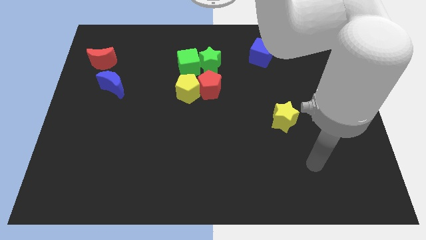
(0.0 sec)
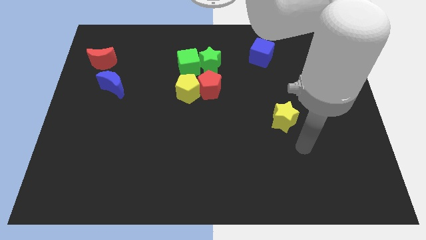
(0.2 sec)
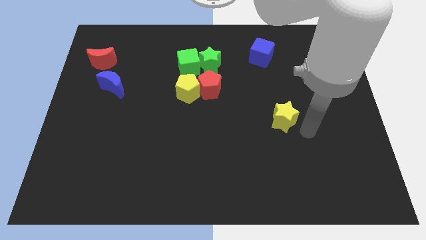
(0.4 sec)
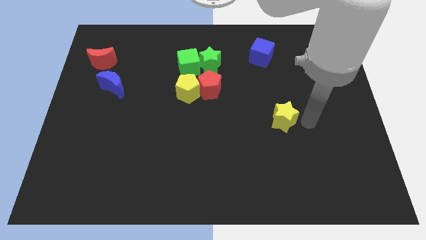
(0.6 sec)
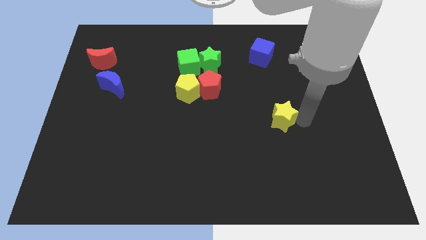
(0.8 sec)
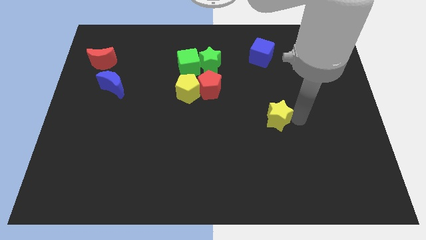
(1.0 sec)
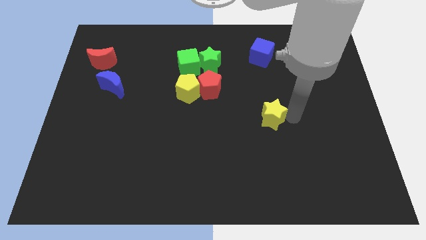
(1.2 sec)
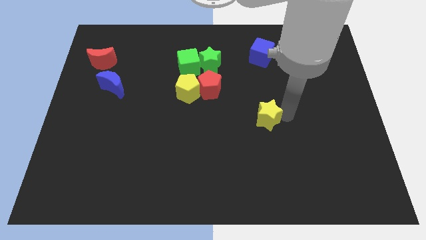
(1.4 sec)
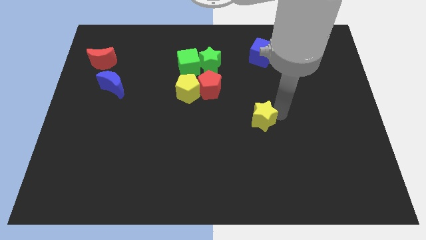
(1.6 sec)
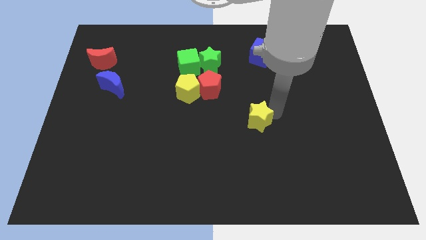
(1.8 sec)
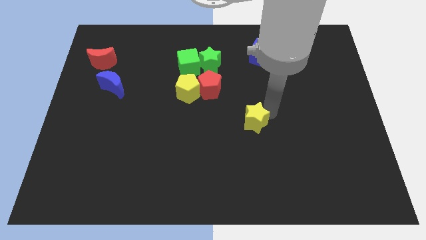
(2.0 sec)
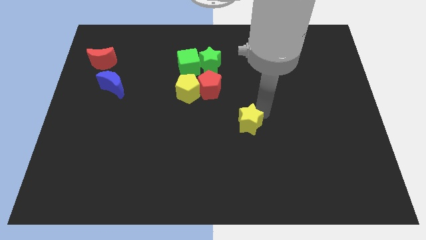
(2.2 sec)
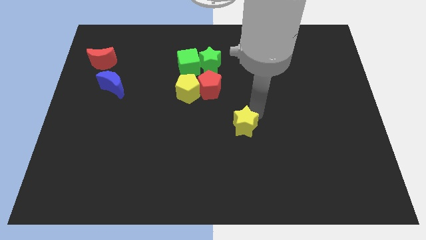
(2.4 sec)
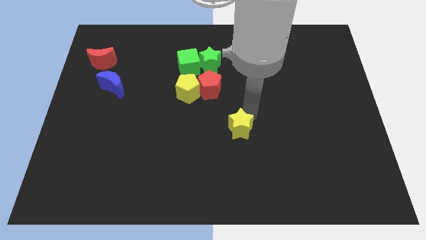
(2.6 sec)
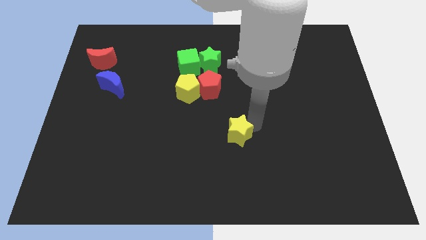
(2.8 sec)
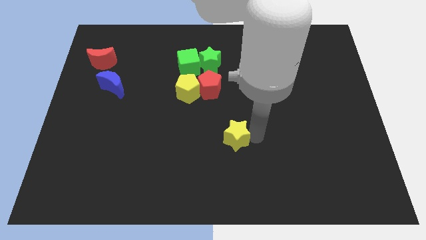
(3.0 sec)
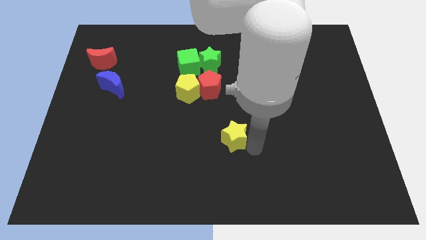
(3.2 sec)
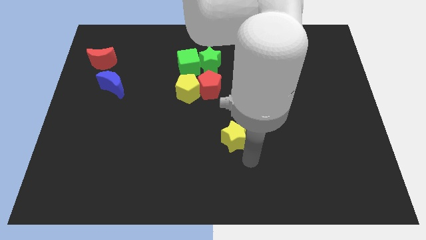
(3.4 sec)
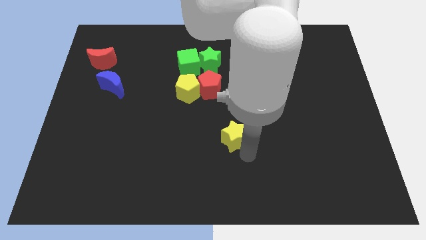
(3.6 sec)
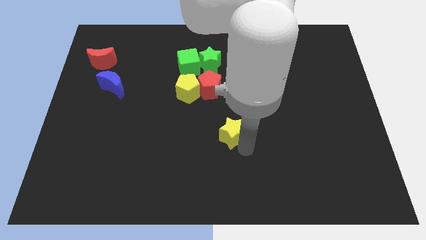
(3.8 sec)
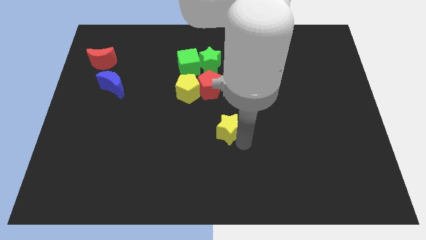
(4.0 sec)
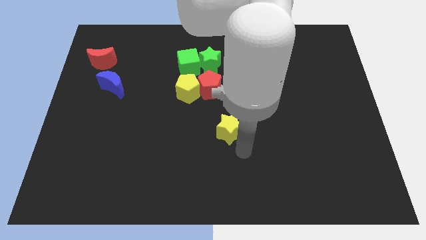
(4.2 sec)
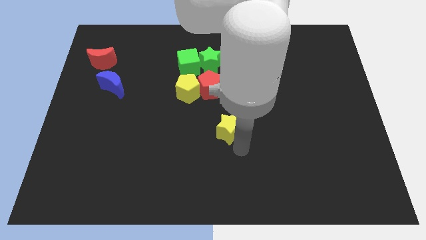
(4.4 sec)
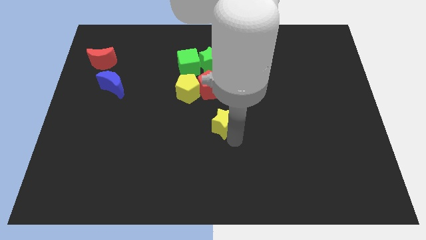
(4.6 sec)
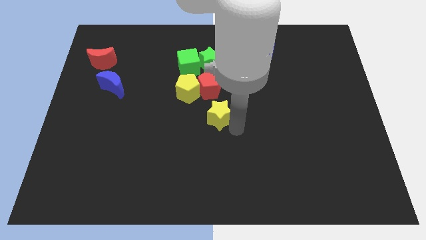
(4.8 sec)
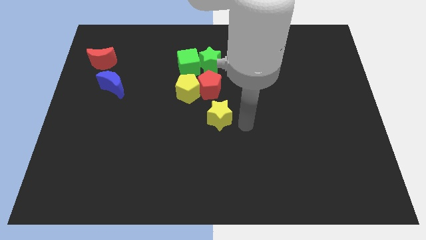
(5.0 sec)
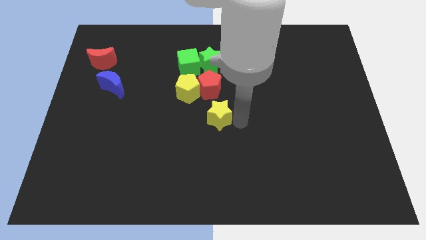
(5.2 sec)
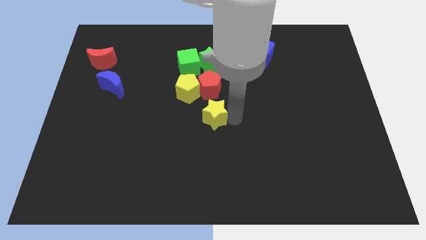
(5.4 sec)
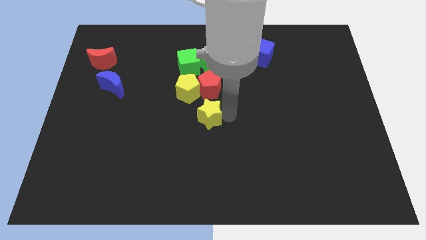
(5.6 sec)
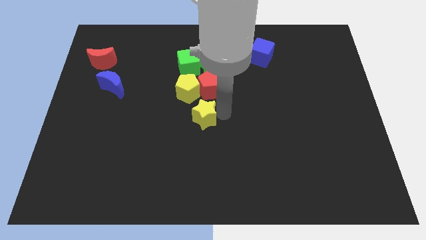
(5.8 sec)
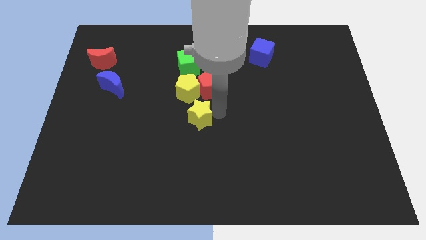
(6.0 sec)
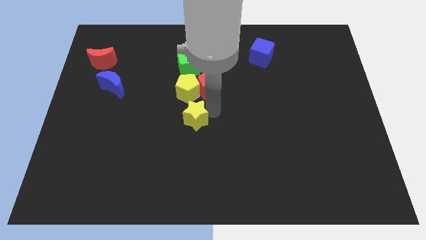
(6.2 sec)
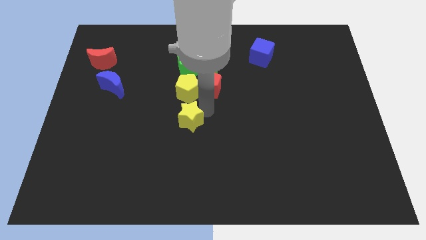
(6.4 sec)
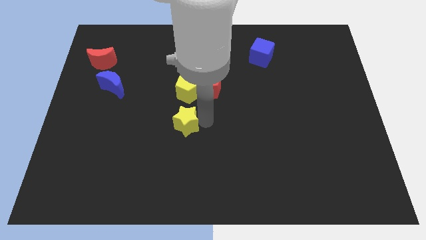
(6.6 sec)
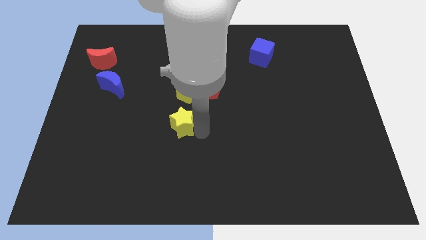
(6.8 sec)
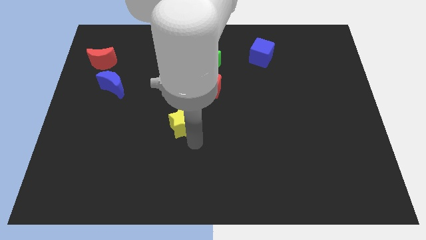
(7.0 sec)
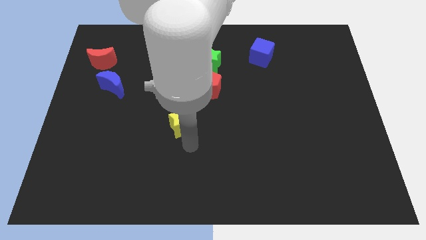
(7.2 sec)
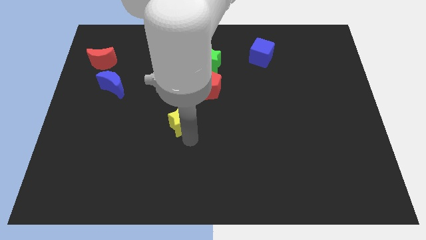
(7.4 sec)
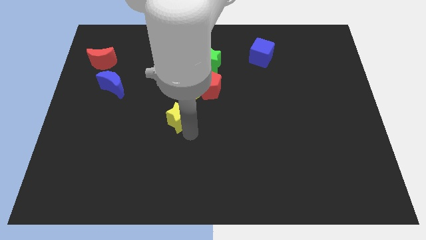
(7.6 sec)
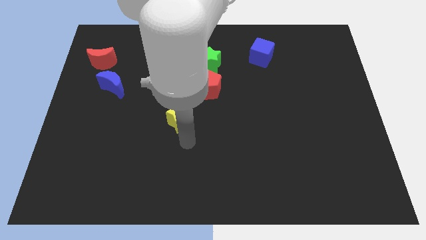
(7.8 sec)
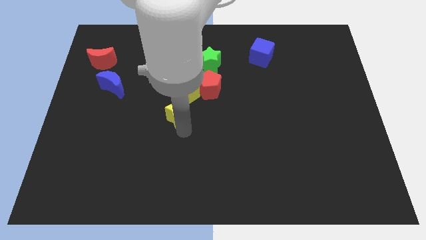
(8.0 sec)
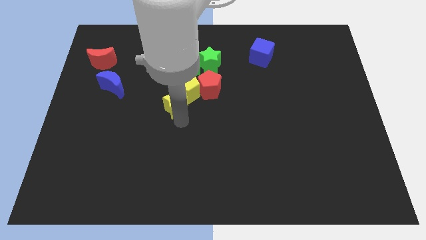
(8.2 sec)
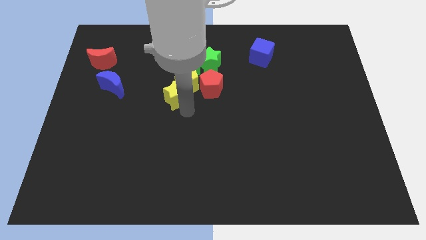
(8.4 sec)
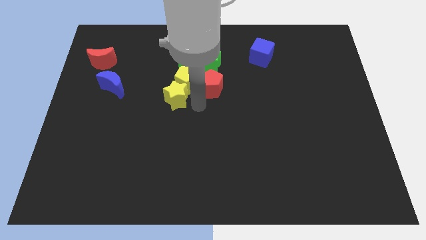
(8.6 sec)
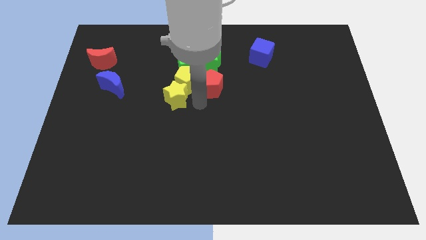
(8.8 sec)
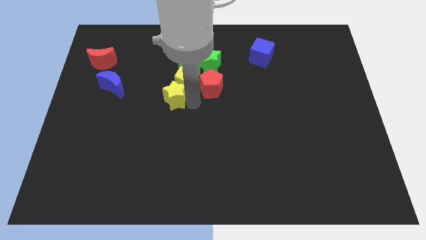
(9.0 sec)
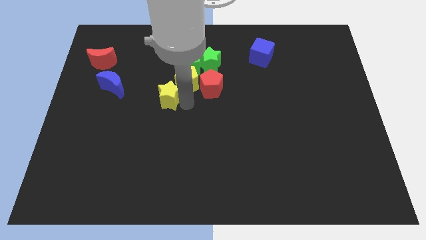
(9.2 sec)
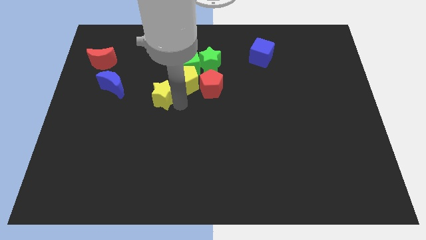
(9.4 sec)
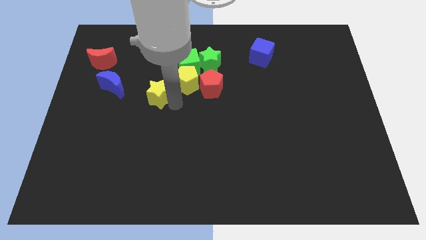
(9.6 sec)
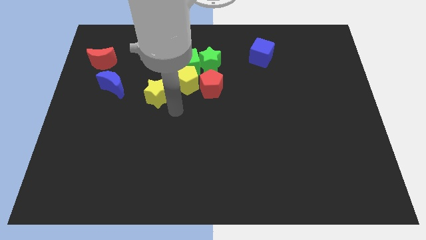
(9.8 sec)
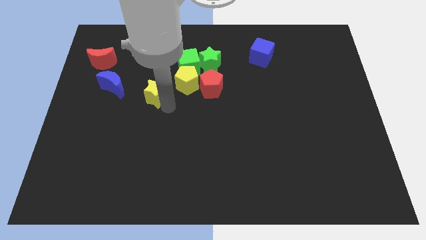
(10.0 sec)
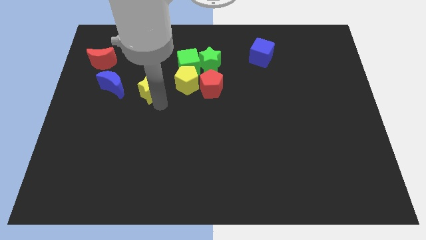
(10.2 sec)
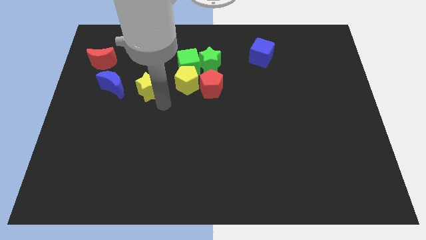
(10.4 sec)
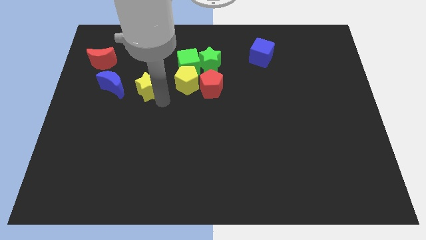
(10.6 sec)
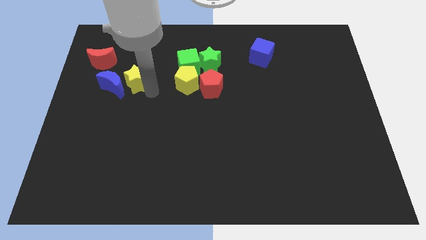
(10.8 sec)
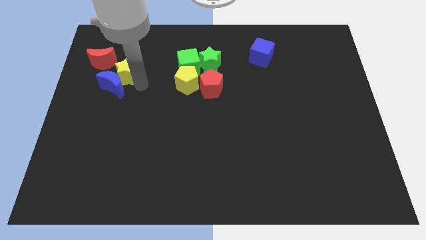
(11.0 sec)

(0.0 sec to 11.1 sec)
move the yellow star to the top of the blue moon

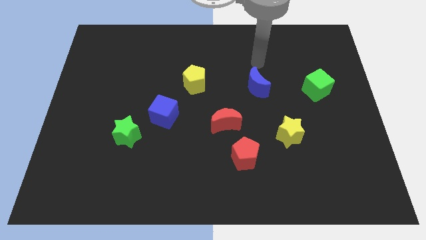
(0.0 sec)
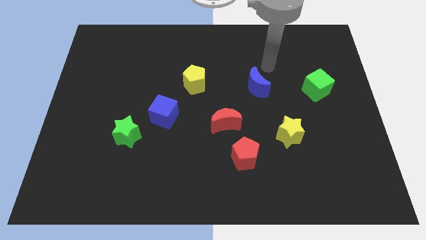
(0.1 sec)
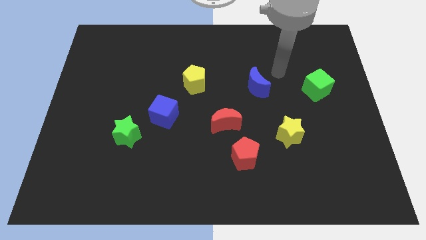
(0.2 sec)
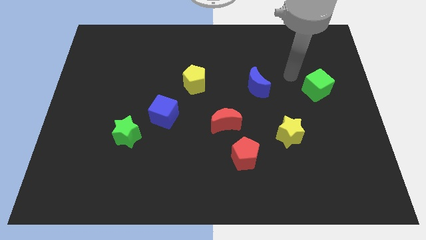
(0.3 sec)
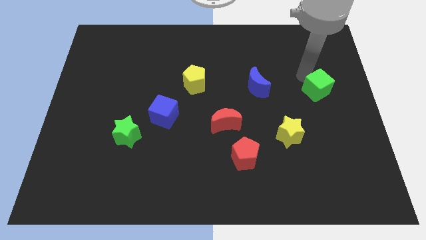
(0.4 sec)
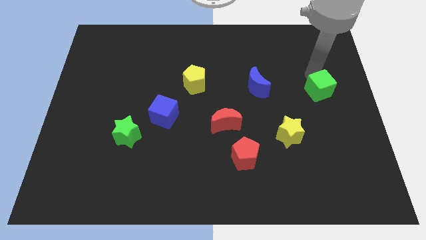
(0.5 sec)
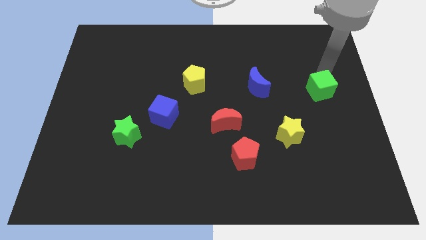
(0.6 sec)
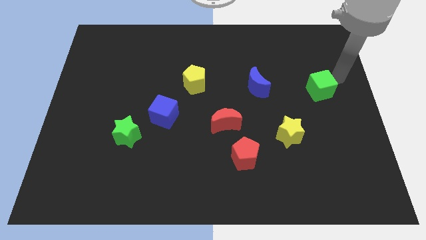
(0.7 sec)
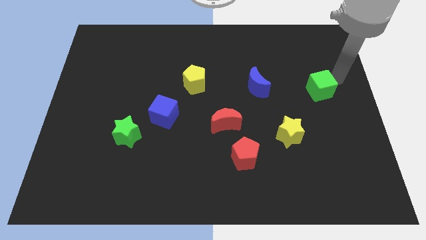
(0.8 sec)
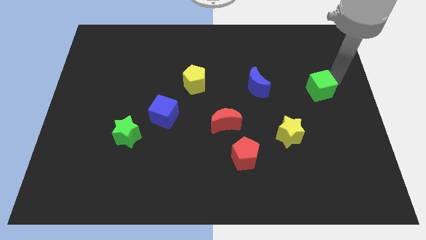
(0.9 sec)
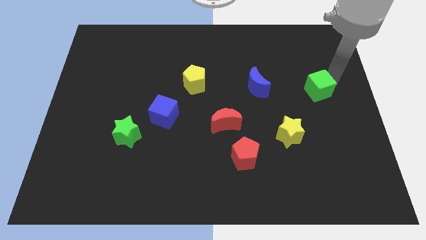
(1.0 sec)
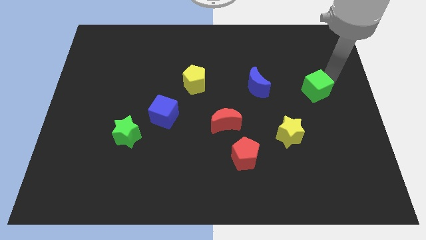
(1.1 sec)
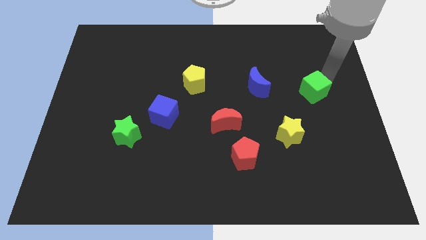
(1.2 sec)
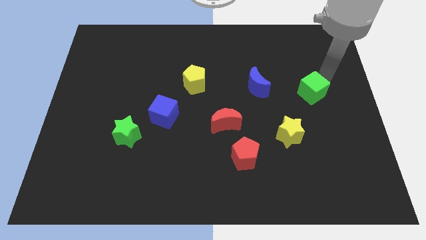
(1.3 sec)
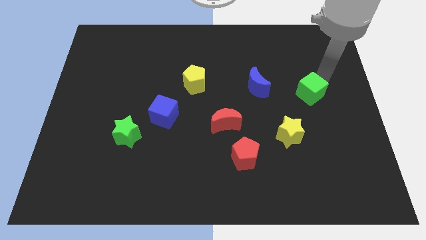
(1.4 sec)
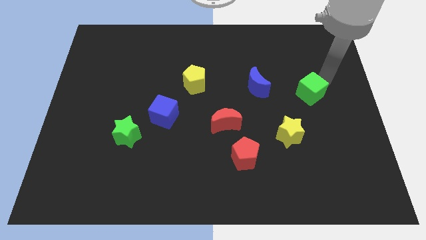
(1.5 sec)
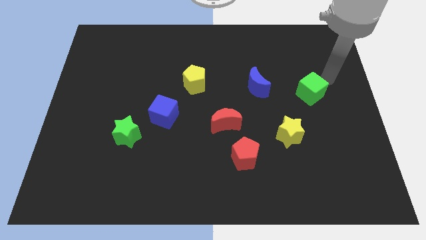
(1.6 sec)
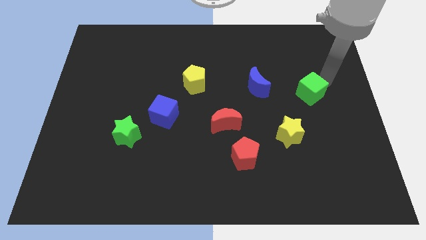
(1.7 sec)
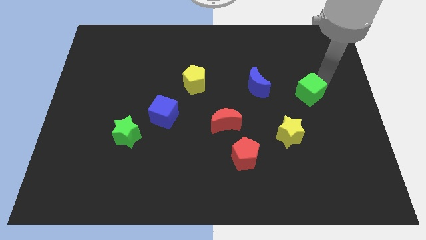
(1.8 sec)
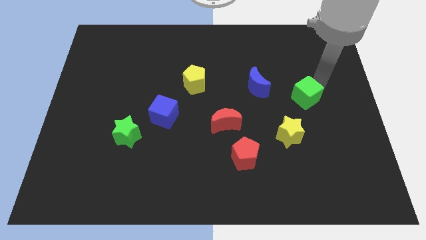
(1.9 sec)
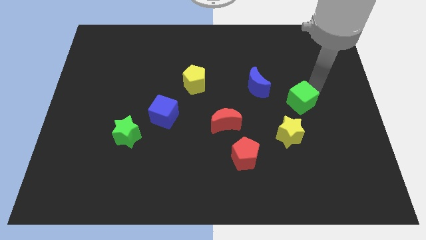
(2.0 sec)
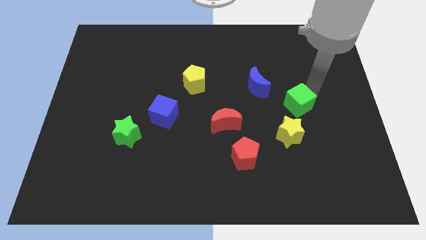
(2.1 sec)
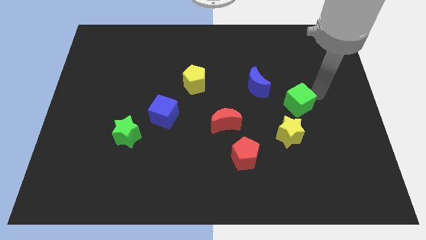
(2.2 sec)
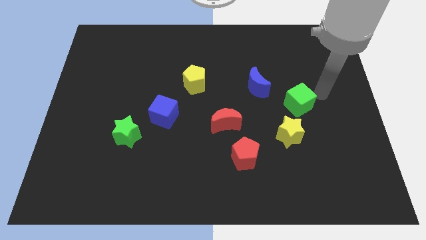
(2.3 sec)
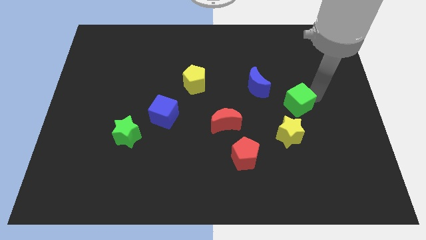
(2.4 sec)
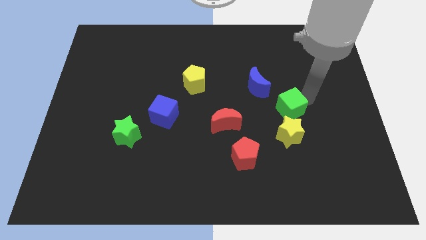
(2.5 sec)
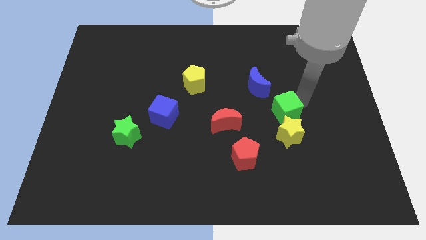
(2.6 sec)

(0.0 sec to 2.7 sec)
move the green cube to the top left of the yellow star
